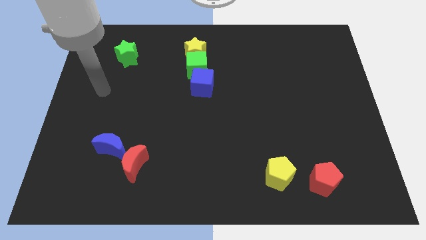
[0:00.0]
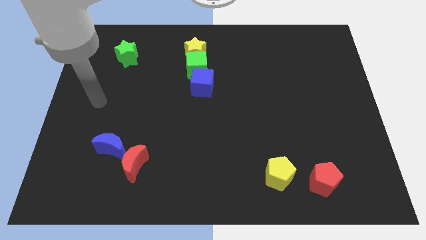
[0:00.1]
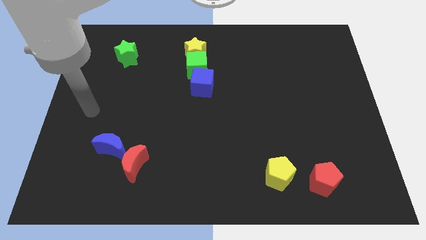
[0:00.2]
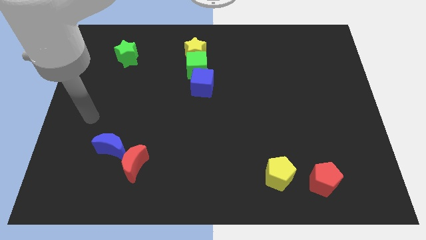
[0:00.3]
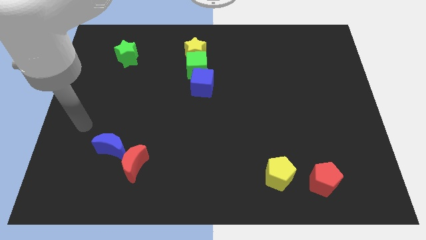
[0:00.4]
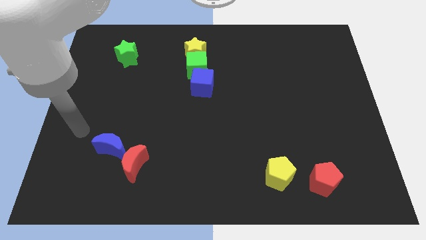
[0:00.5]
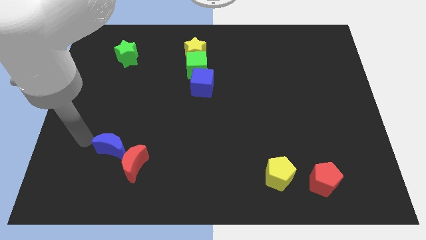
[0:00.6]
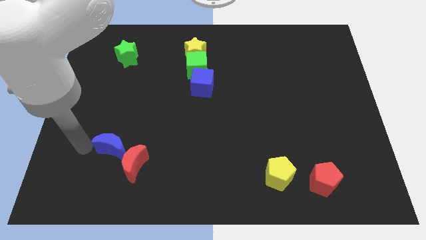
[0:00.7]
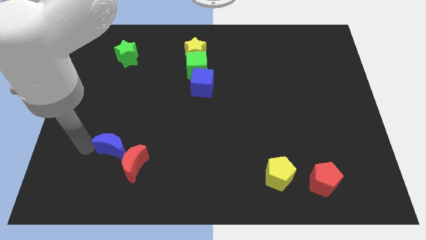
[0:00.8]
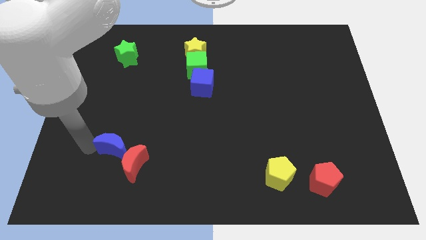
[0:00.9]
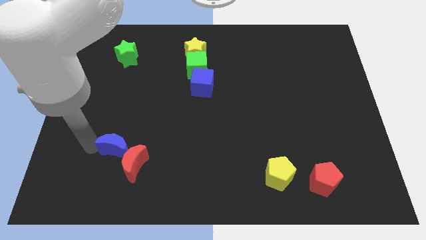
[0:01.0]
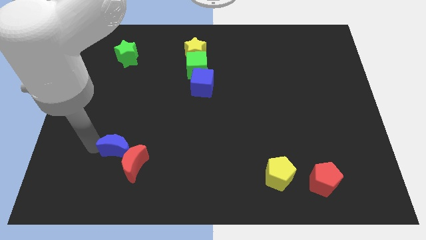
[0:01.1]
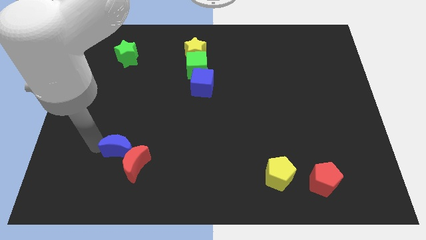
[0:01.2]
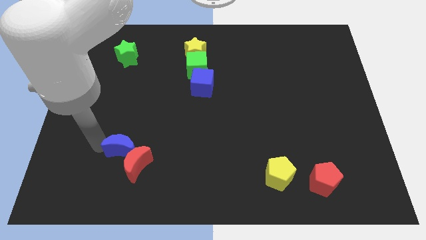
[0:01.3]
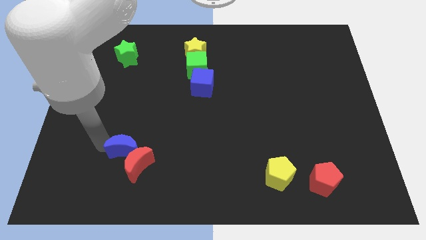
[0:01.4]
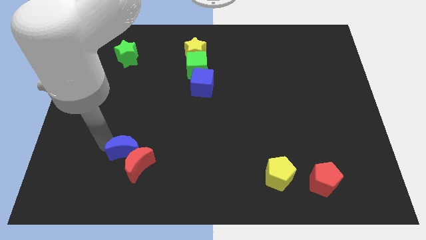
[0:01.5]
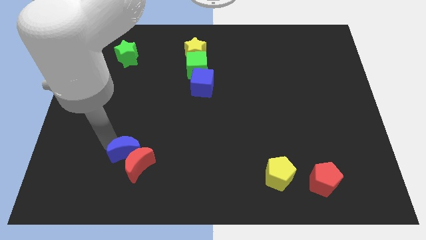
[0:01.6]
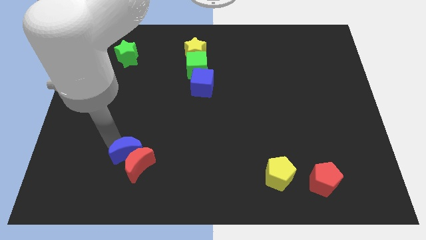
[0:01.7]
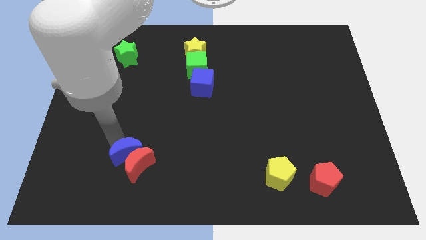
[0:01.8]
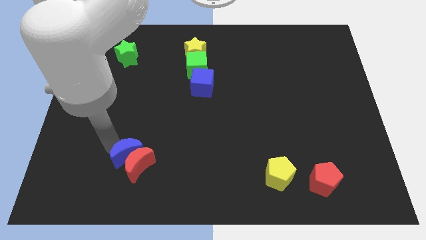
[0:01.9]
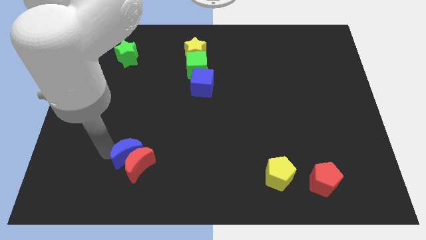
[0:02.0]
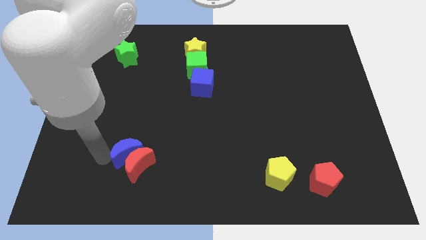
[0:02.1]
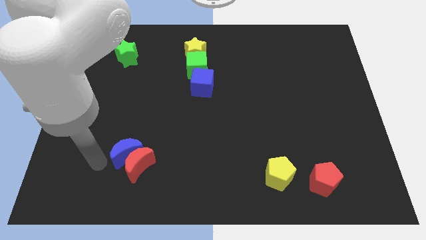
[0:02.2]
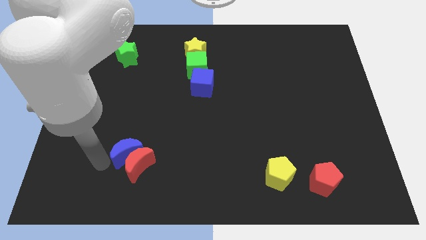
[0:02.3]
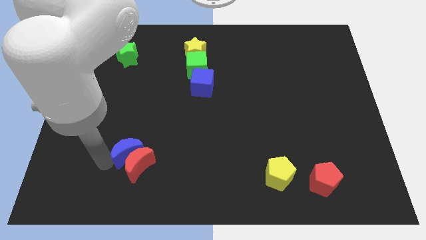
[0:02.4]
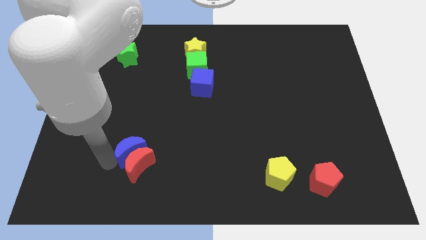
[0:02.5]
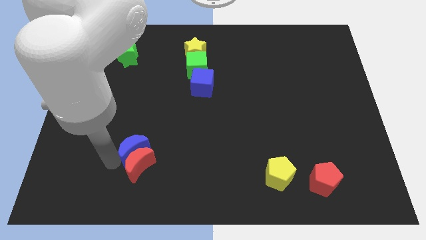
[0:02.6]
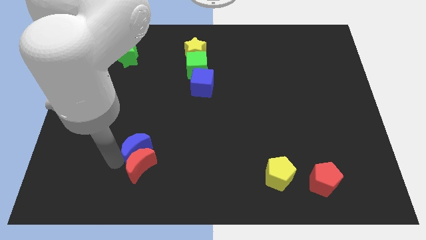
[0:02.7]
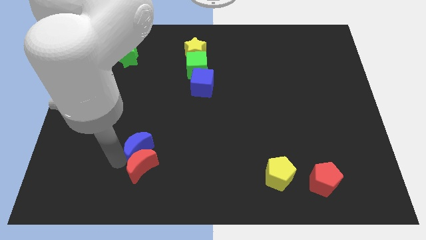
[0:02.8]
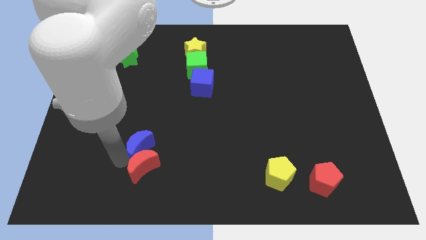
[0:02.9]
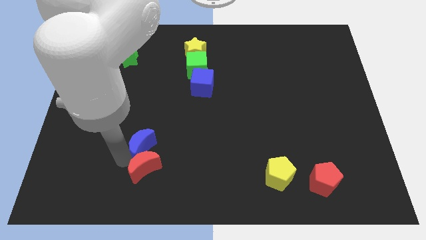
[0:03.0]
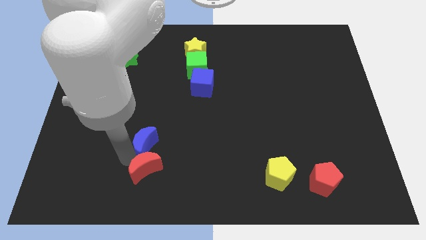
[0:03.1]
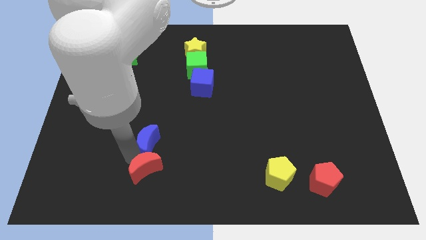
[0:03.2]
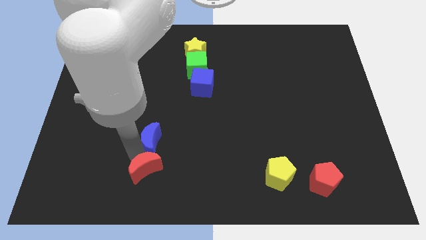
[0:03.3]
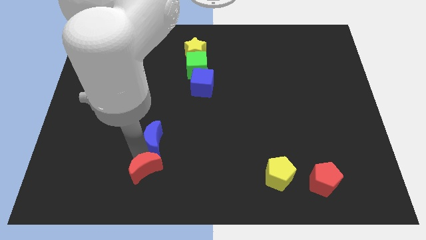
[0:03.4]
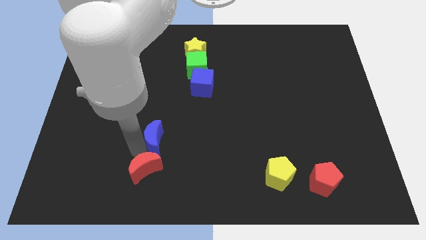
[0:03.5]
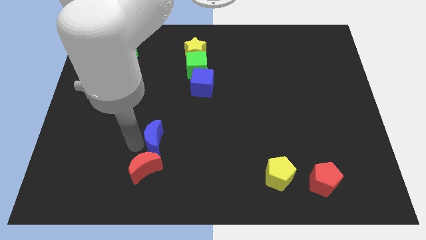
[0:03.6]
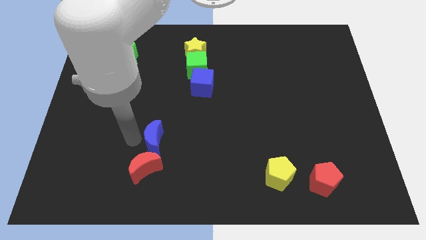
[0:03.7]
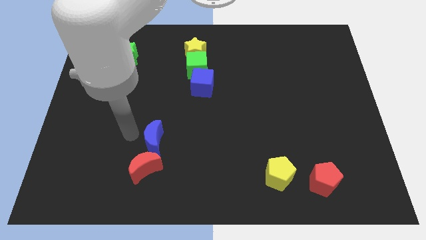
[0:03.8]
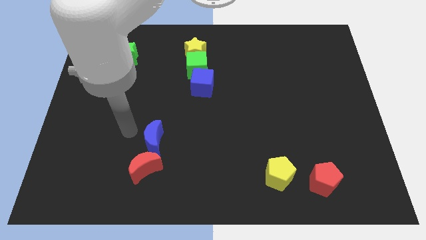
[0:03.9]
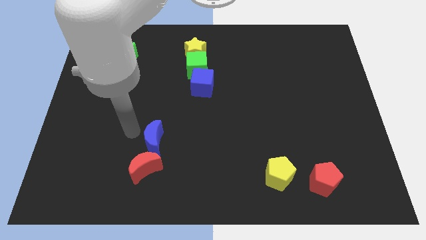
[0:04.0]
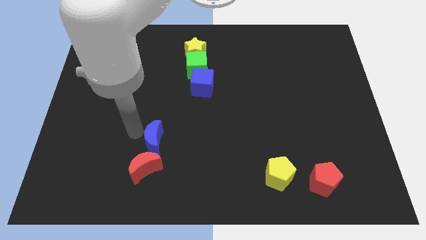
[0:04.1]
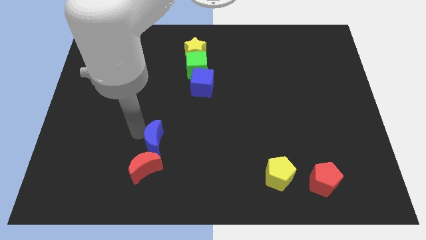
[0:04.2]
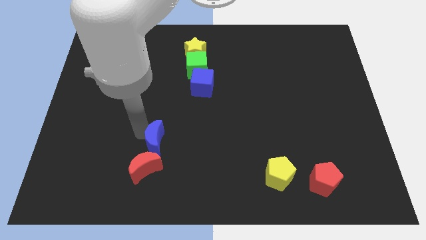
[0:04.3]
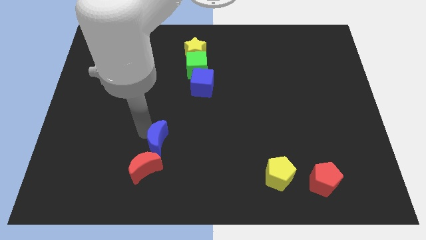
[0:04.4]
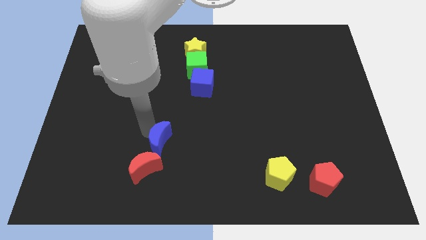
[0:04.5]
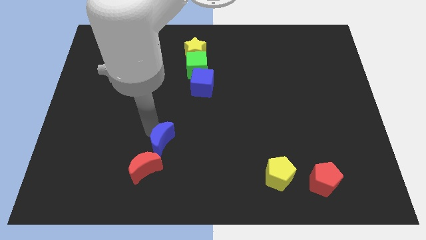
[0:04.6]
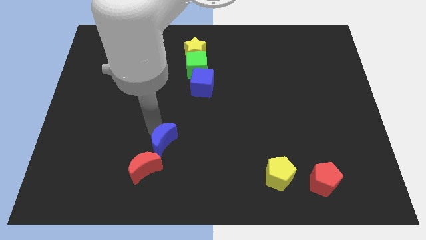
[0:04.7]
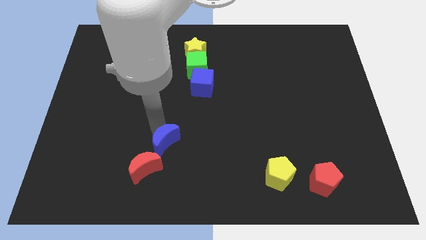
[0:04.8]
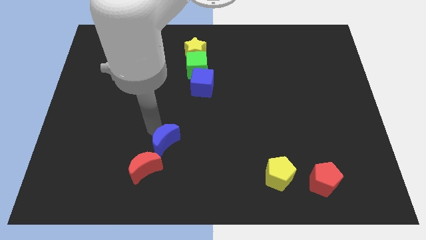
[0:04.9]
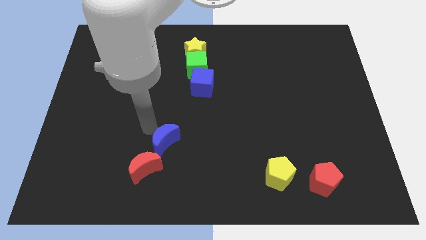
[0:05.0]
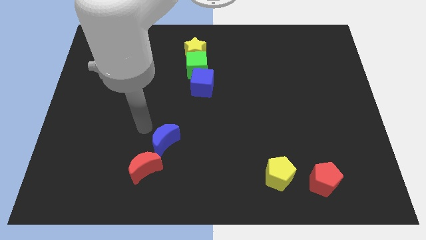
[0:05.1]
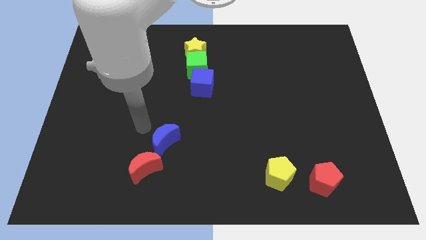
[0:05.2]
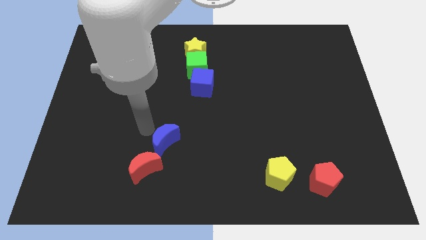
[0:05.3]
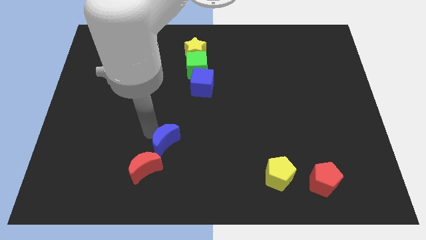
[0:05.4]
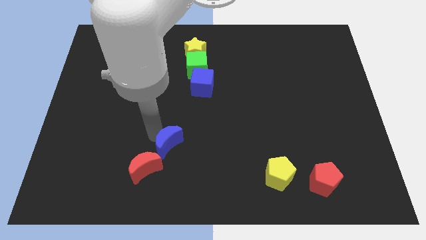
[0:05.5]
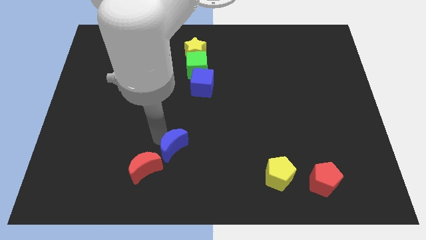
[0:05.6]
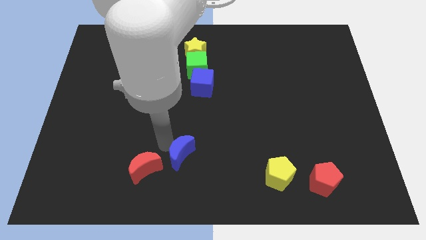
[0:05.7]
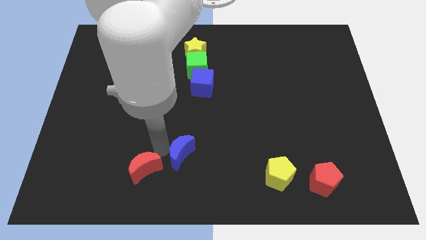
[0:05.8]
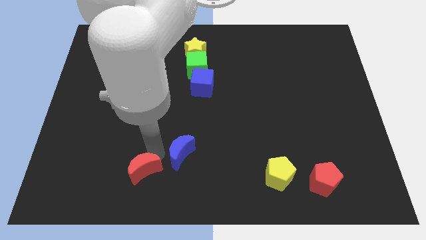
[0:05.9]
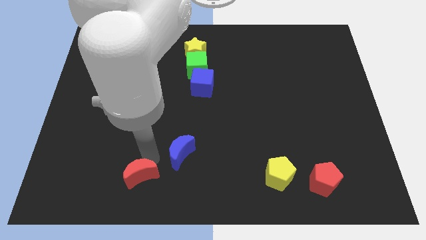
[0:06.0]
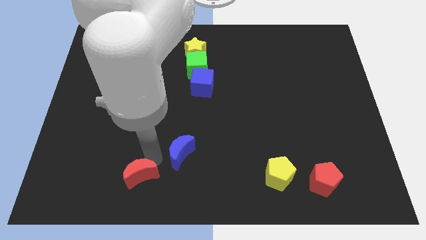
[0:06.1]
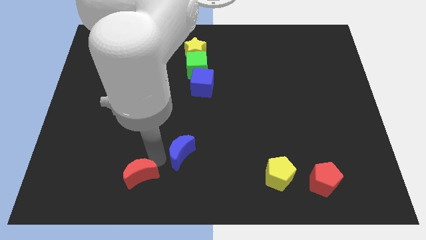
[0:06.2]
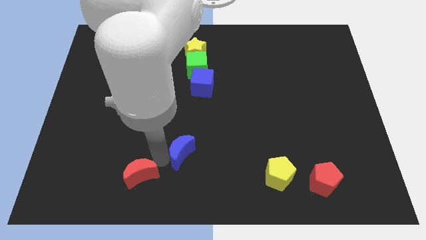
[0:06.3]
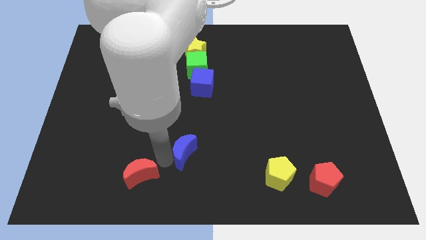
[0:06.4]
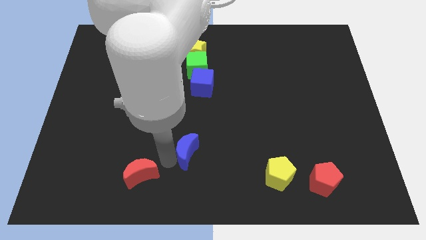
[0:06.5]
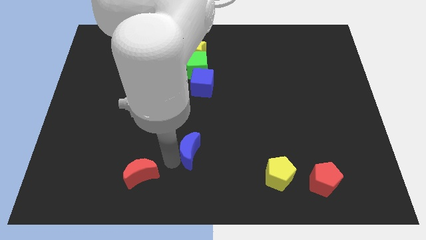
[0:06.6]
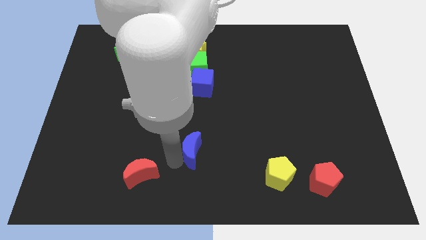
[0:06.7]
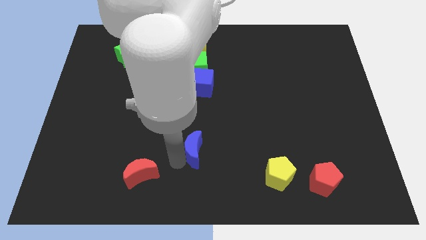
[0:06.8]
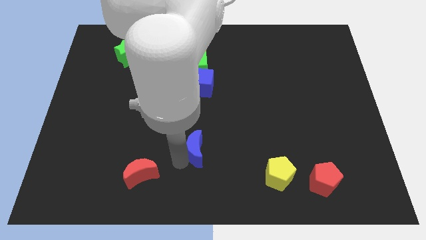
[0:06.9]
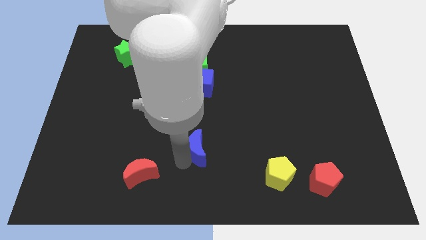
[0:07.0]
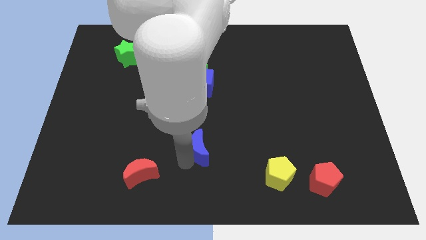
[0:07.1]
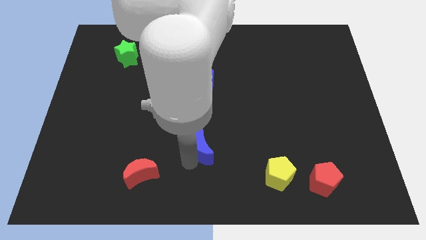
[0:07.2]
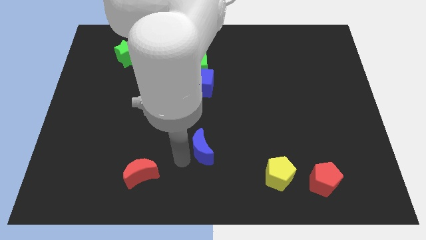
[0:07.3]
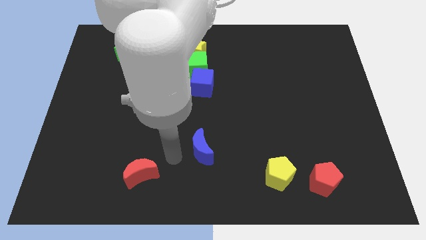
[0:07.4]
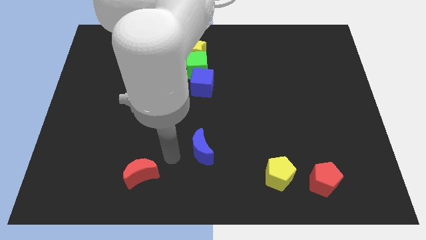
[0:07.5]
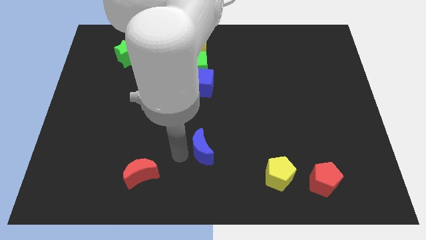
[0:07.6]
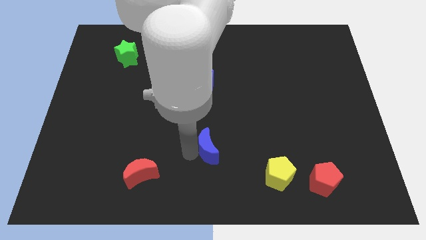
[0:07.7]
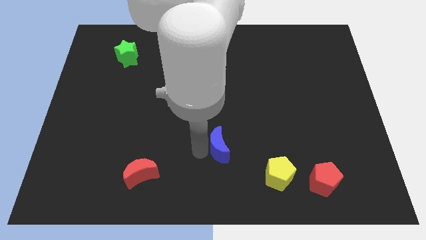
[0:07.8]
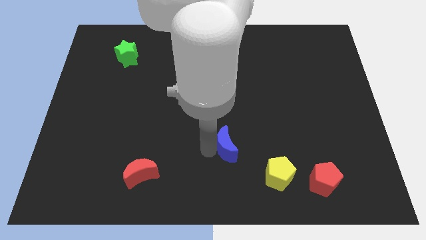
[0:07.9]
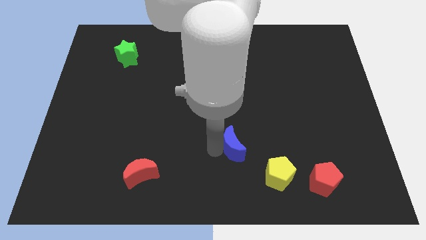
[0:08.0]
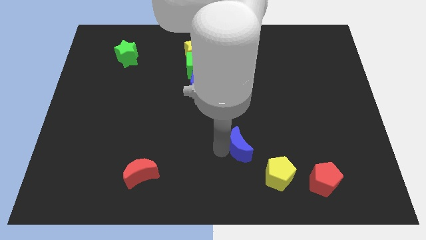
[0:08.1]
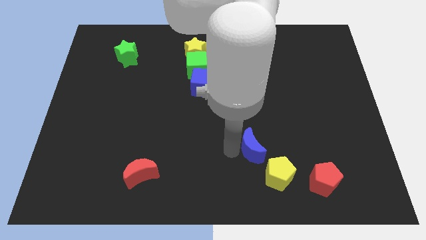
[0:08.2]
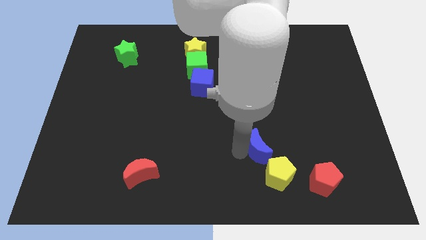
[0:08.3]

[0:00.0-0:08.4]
put the blue moon to the top side of the yellow pentagon
